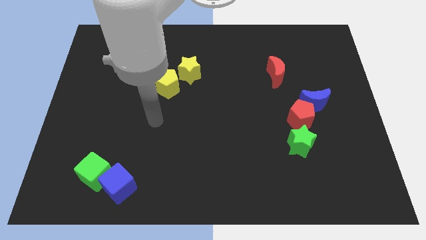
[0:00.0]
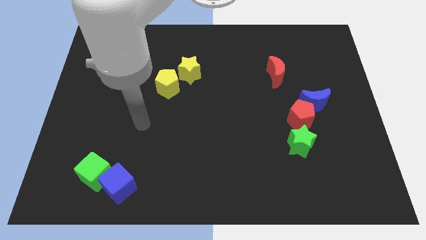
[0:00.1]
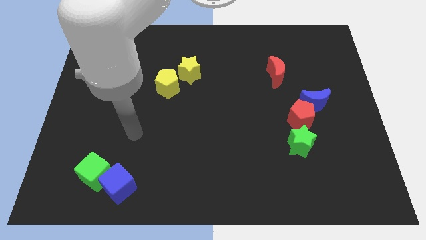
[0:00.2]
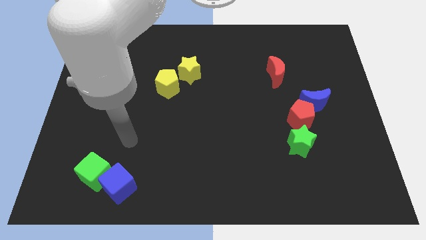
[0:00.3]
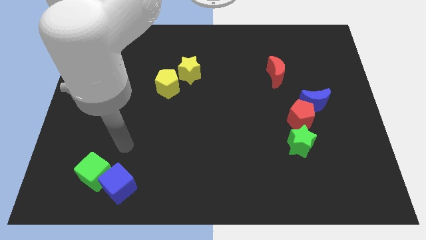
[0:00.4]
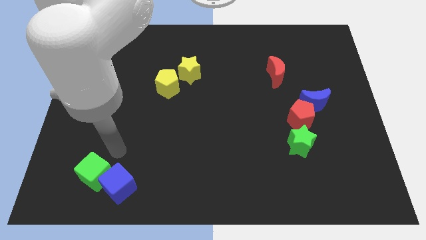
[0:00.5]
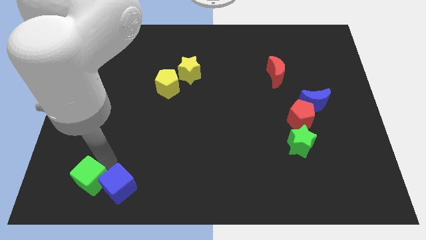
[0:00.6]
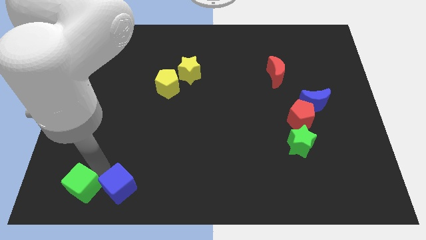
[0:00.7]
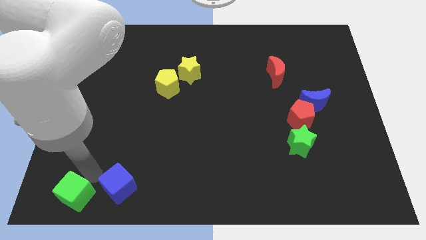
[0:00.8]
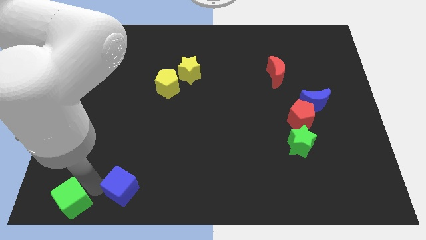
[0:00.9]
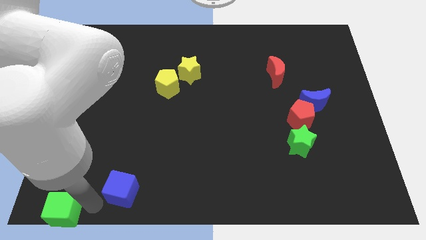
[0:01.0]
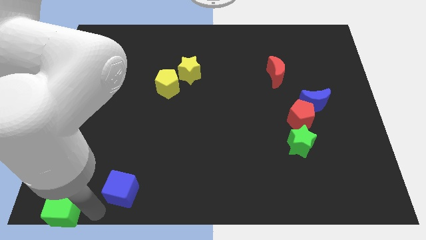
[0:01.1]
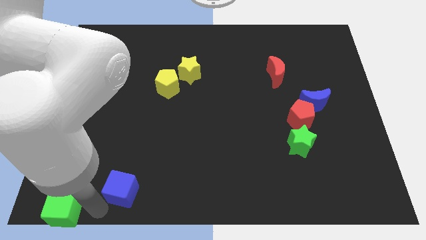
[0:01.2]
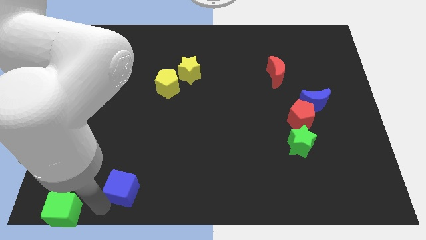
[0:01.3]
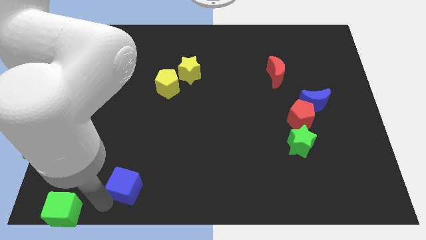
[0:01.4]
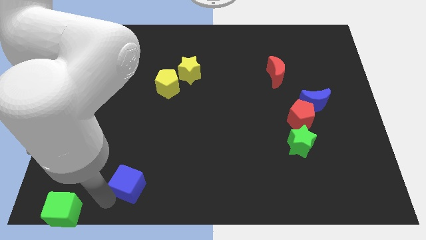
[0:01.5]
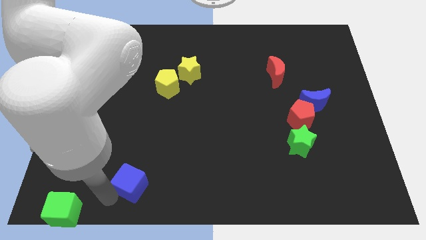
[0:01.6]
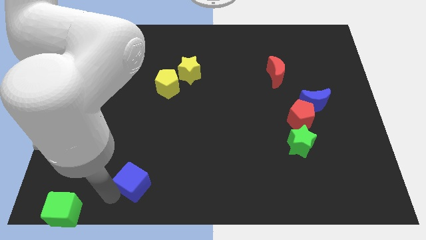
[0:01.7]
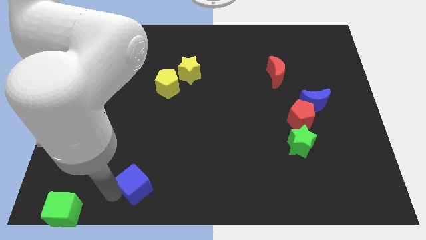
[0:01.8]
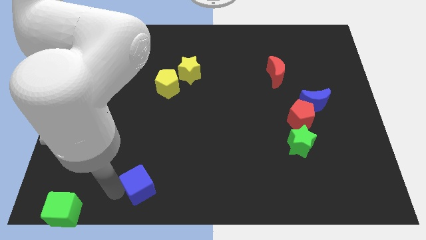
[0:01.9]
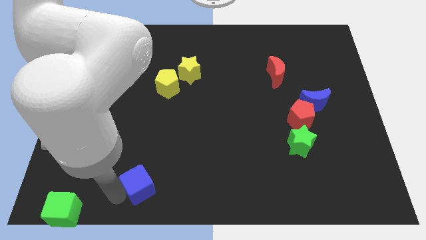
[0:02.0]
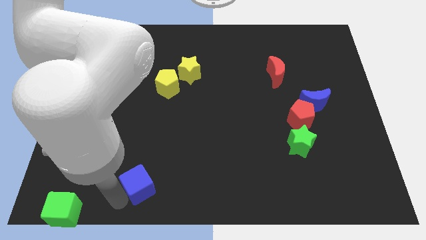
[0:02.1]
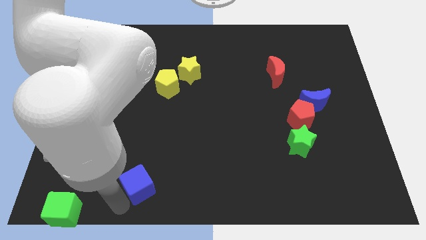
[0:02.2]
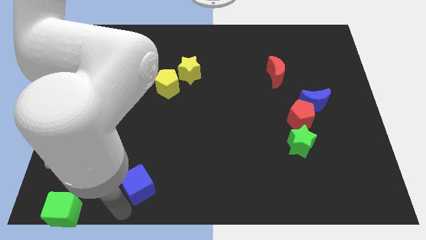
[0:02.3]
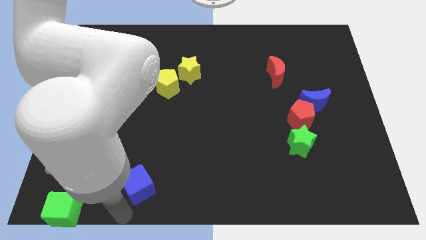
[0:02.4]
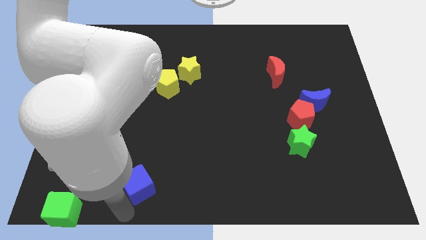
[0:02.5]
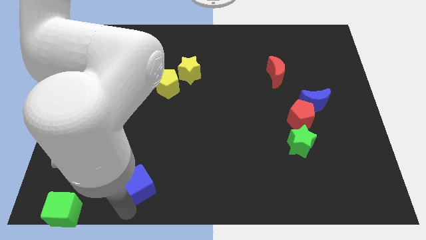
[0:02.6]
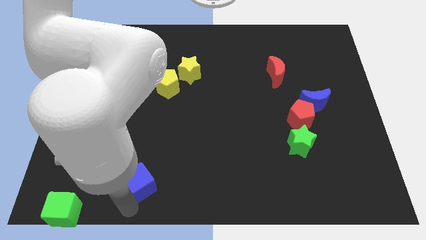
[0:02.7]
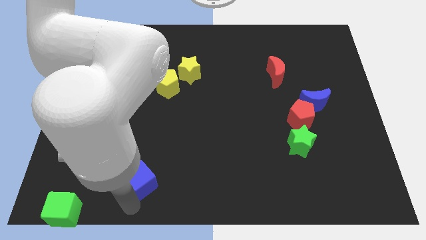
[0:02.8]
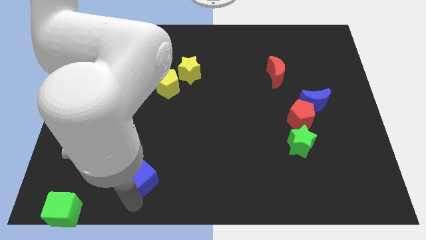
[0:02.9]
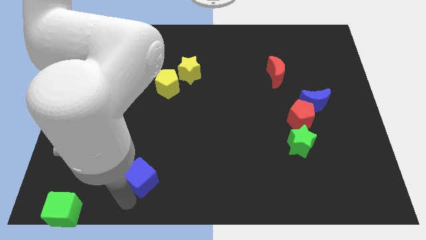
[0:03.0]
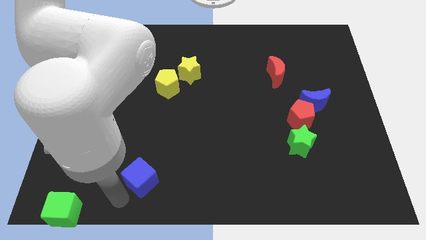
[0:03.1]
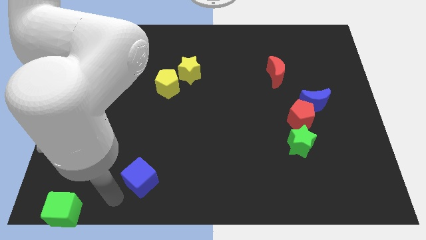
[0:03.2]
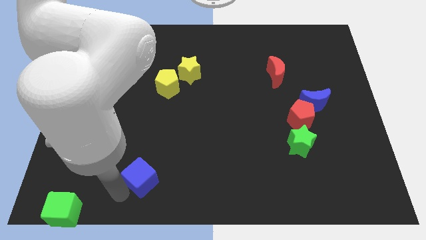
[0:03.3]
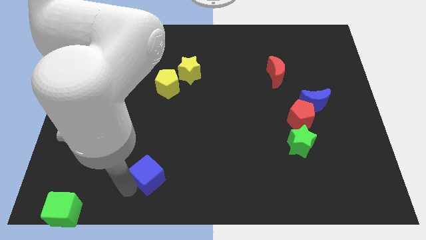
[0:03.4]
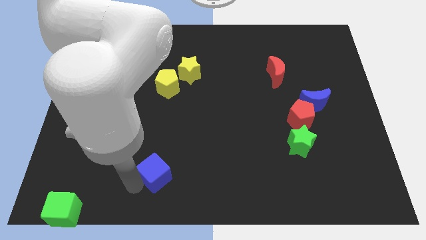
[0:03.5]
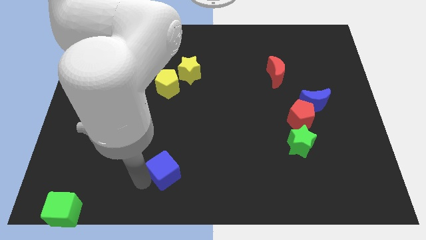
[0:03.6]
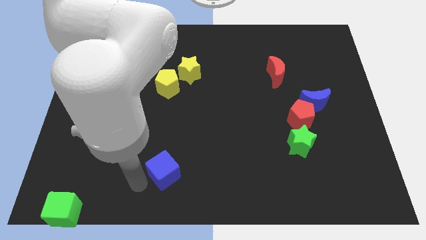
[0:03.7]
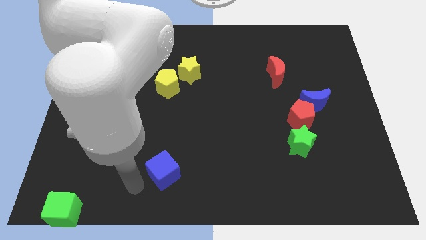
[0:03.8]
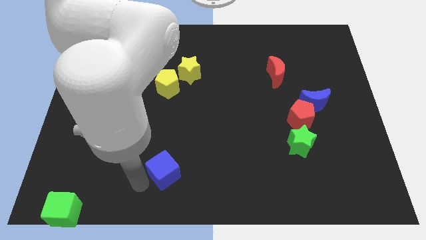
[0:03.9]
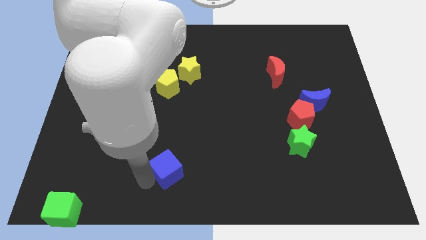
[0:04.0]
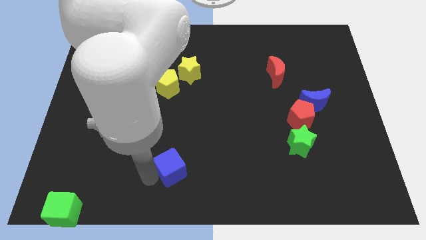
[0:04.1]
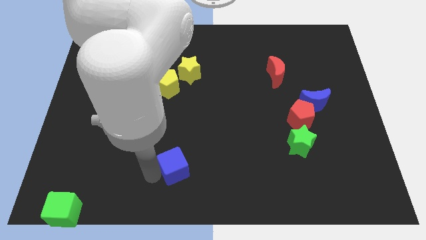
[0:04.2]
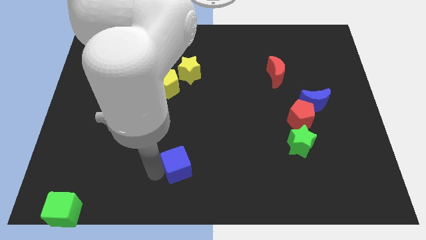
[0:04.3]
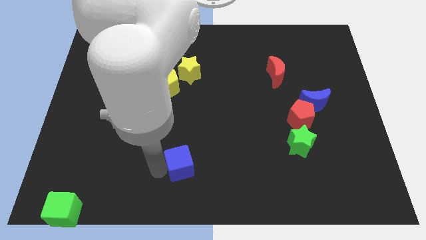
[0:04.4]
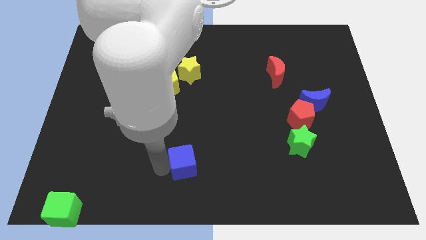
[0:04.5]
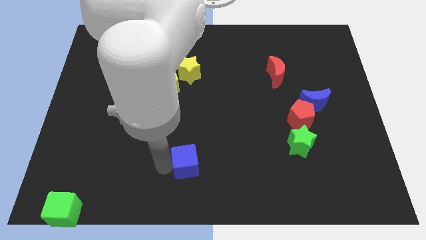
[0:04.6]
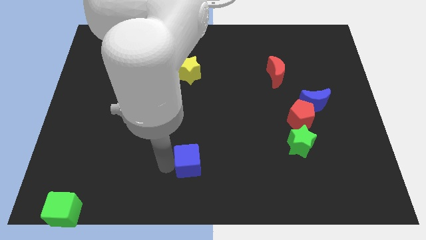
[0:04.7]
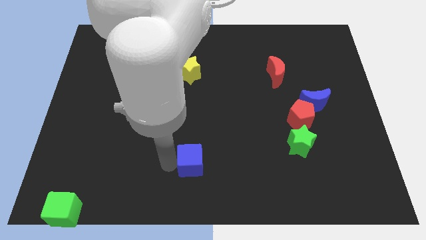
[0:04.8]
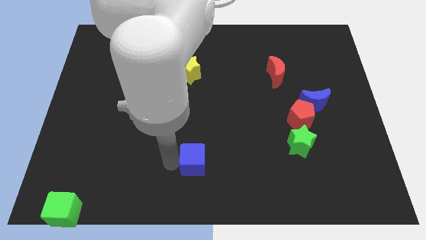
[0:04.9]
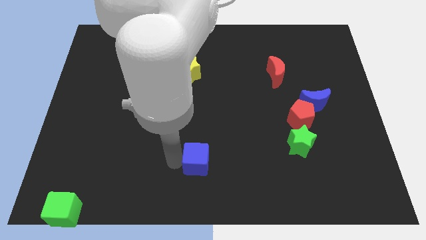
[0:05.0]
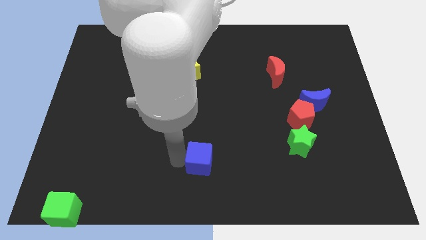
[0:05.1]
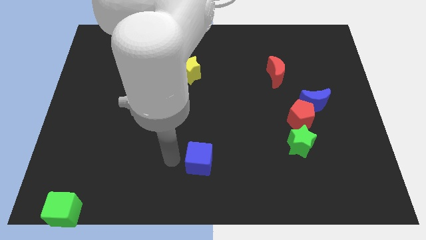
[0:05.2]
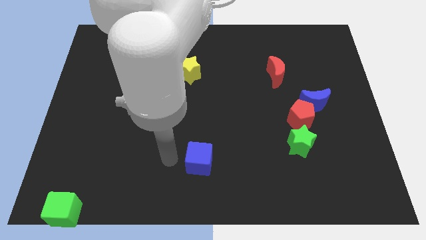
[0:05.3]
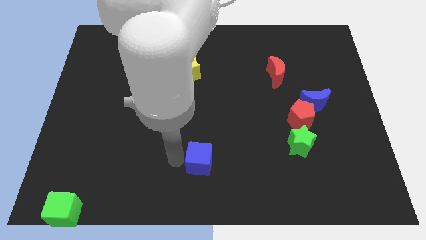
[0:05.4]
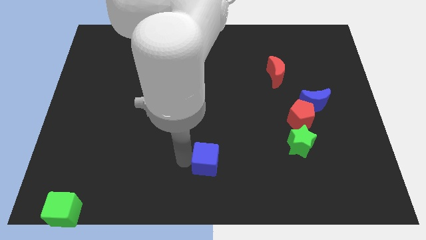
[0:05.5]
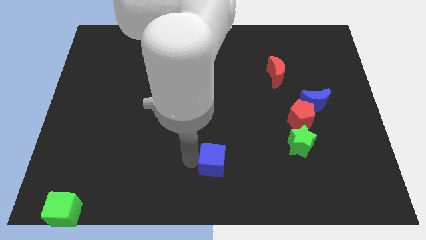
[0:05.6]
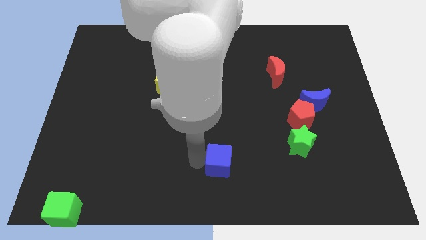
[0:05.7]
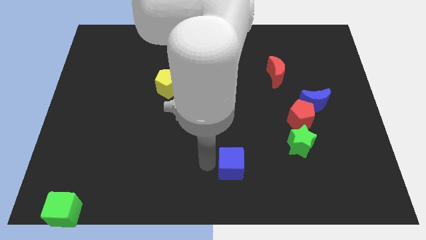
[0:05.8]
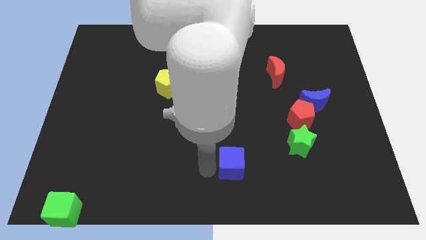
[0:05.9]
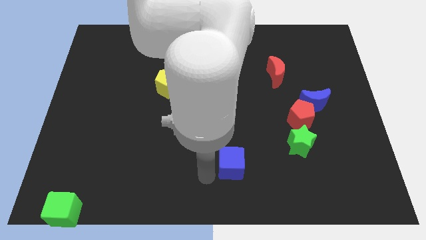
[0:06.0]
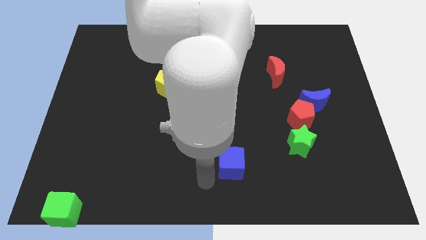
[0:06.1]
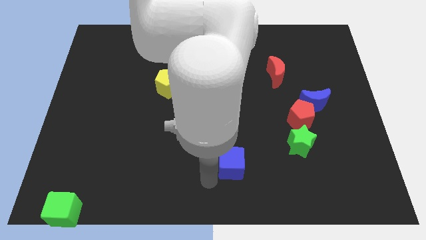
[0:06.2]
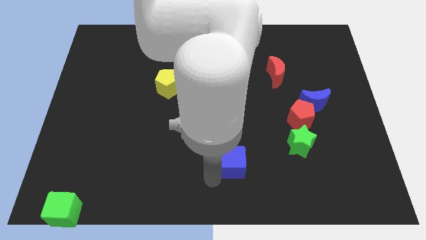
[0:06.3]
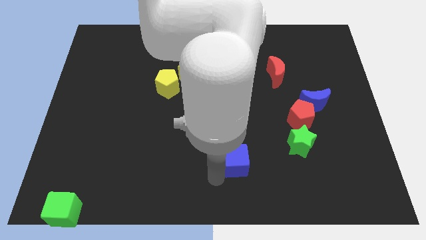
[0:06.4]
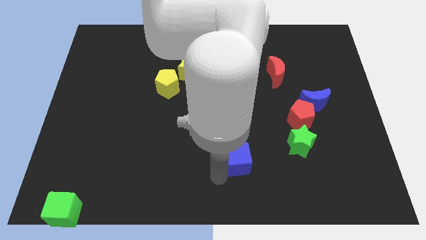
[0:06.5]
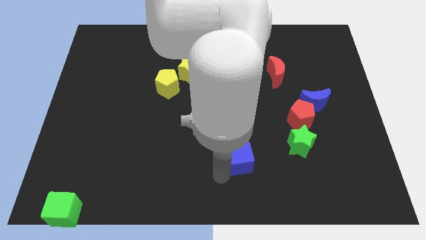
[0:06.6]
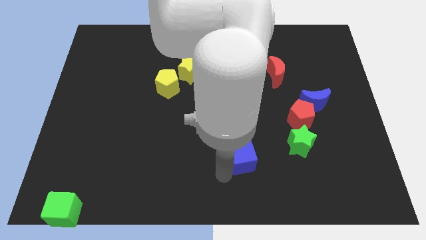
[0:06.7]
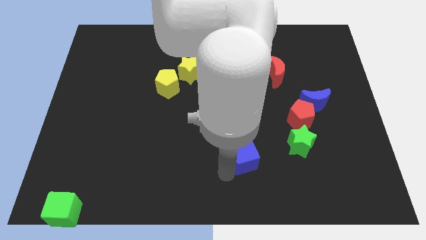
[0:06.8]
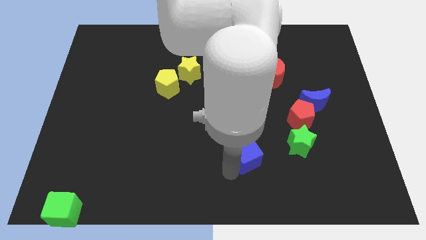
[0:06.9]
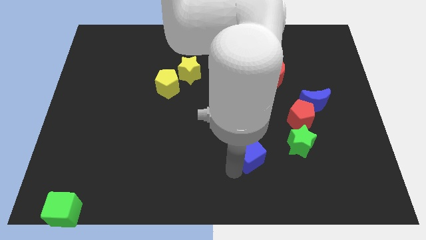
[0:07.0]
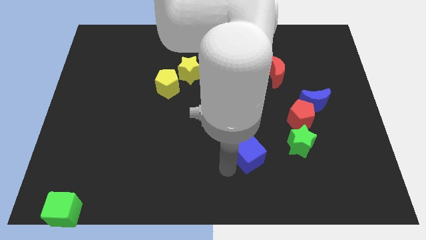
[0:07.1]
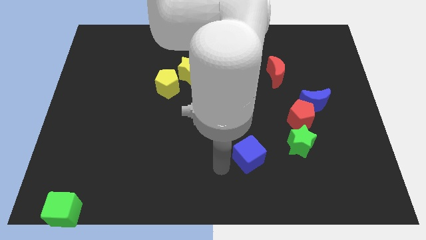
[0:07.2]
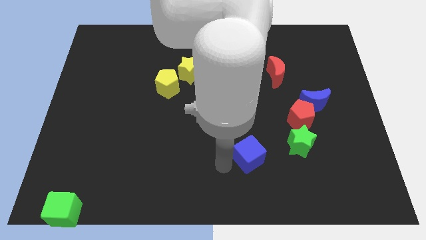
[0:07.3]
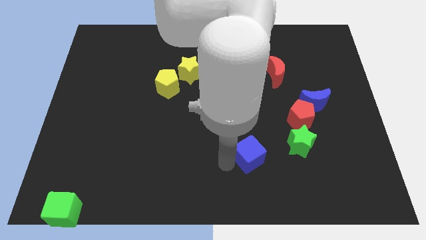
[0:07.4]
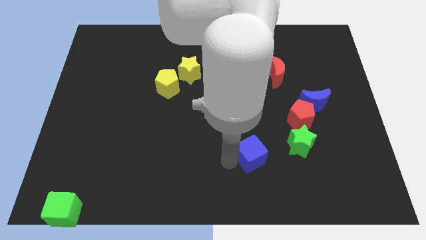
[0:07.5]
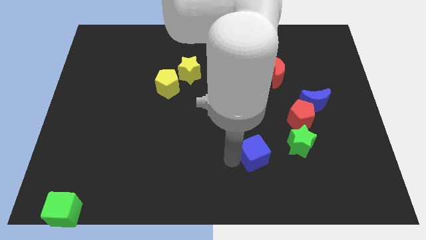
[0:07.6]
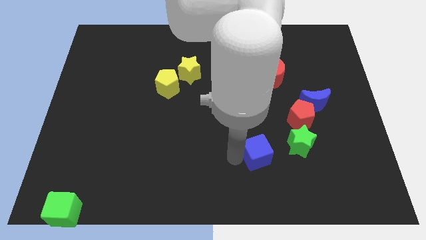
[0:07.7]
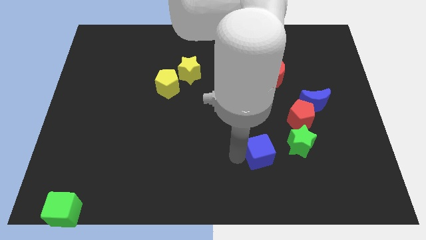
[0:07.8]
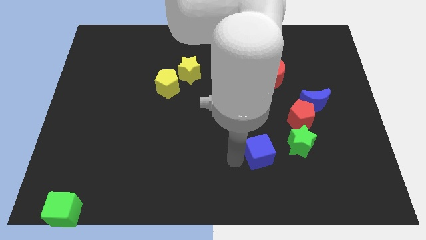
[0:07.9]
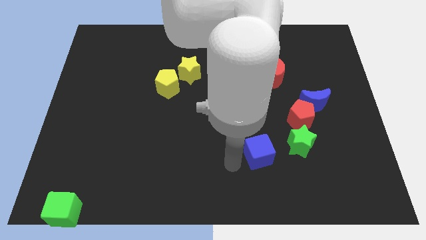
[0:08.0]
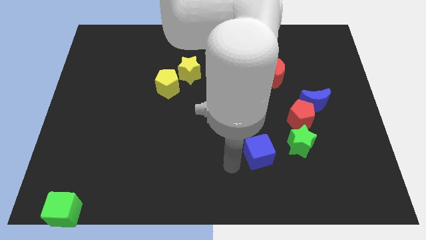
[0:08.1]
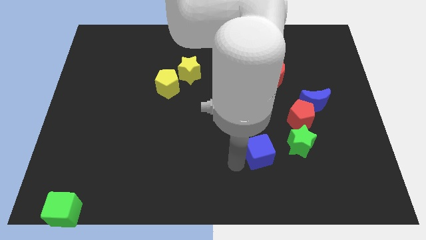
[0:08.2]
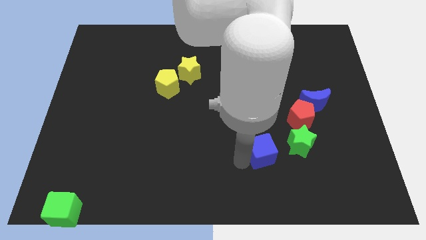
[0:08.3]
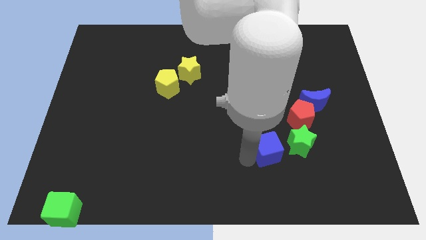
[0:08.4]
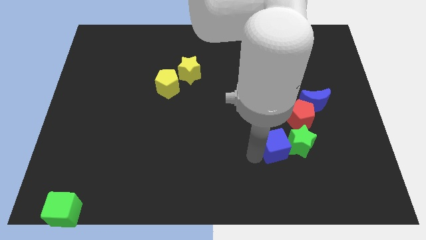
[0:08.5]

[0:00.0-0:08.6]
put the blue cube to the green star
